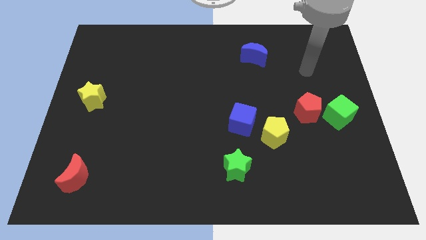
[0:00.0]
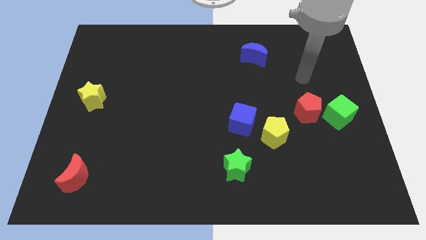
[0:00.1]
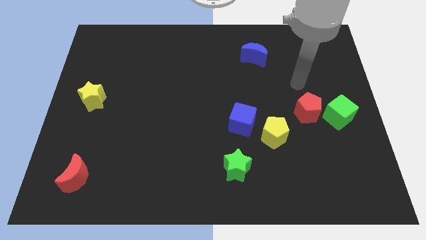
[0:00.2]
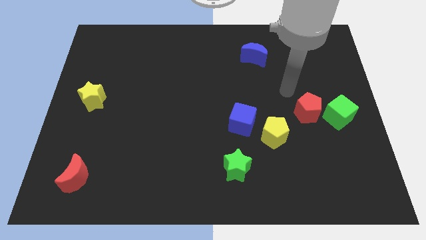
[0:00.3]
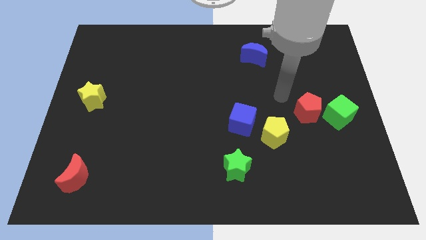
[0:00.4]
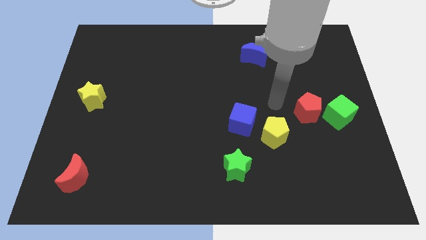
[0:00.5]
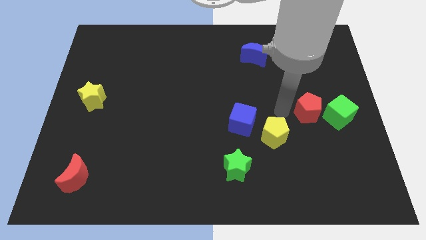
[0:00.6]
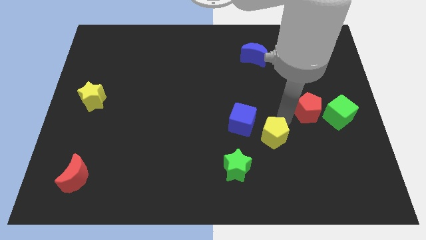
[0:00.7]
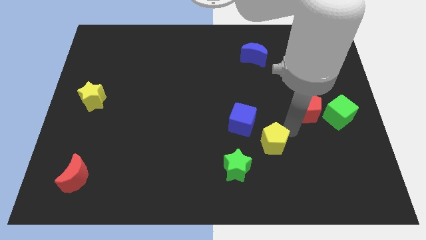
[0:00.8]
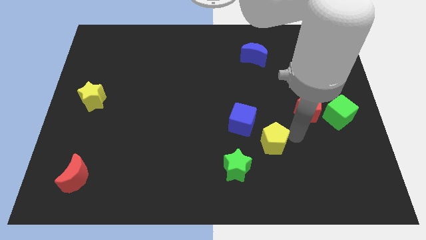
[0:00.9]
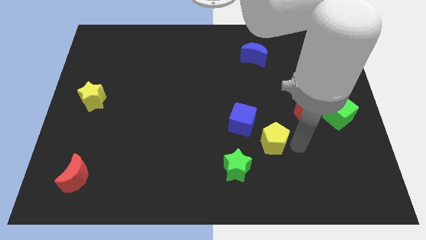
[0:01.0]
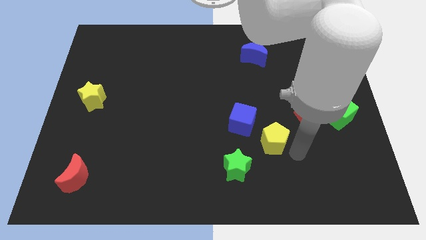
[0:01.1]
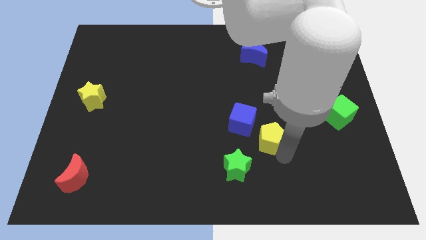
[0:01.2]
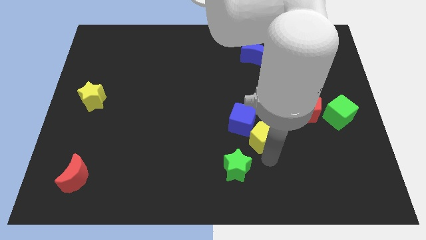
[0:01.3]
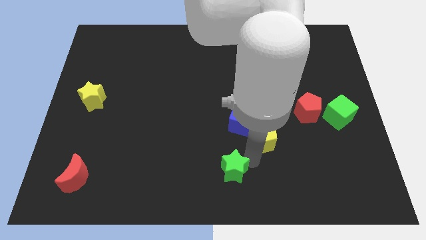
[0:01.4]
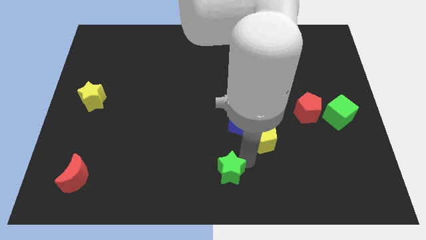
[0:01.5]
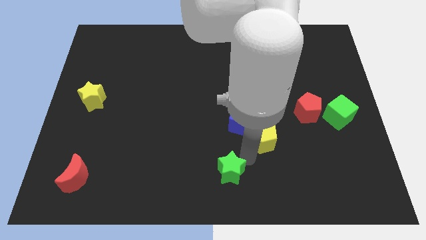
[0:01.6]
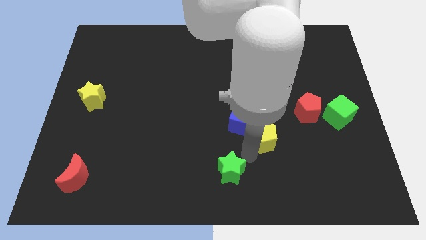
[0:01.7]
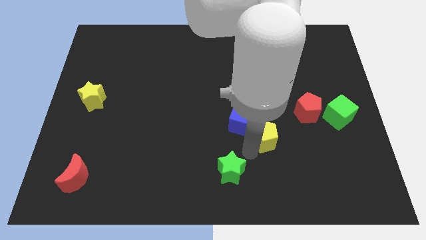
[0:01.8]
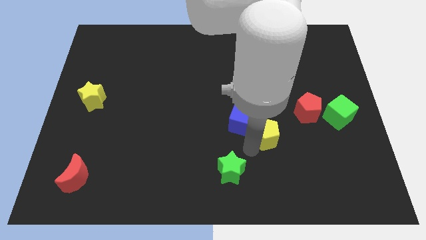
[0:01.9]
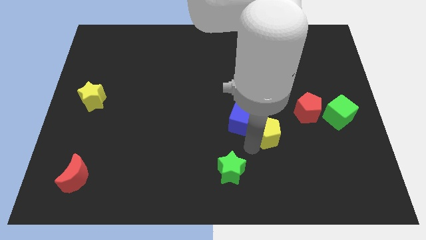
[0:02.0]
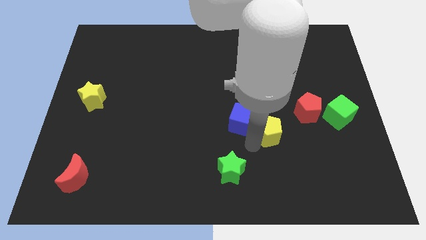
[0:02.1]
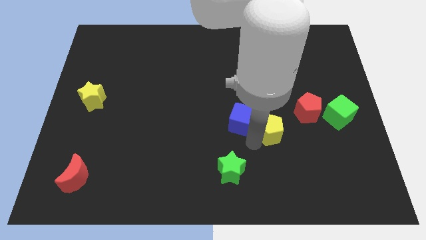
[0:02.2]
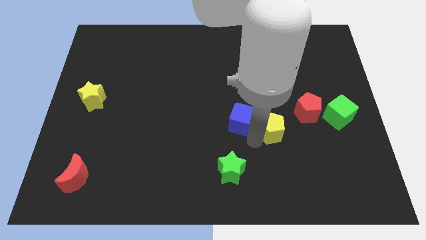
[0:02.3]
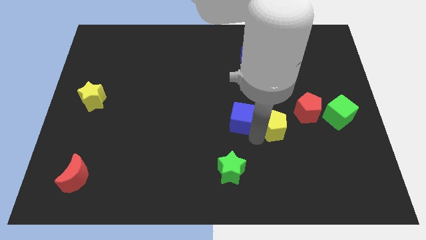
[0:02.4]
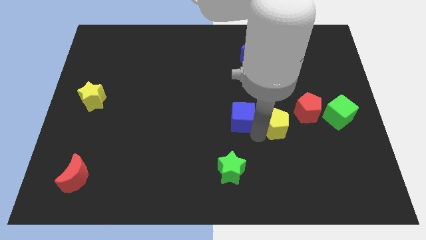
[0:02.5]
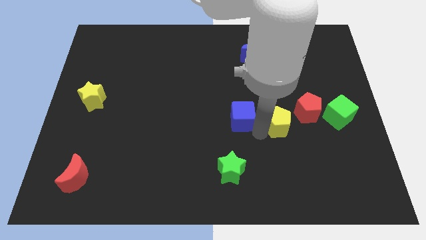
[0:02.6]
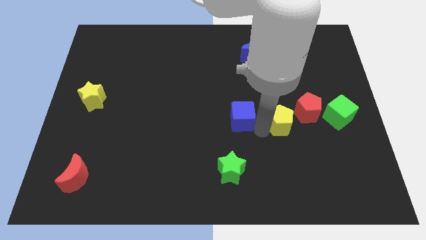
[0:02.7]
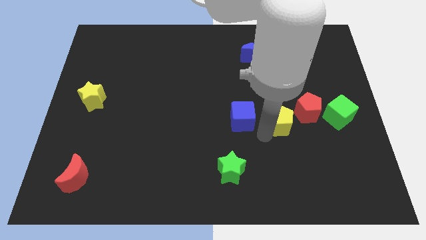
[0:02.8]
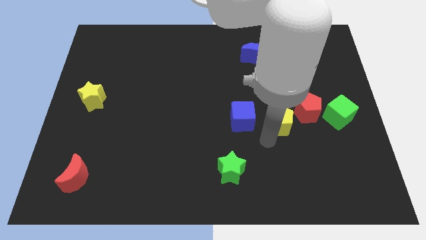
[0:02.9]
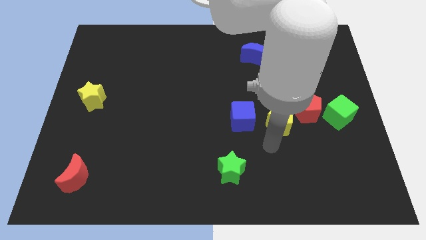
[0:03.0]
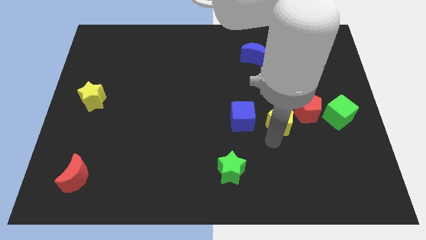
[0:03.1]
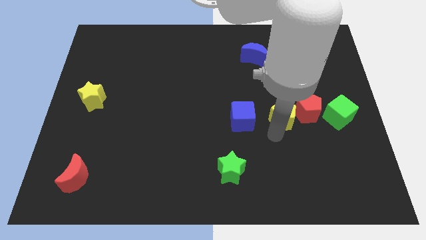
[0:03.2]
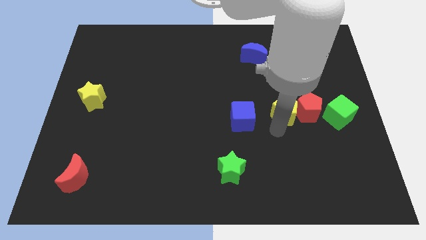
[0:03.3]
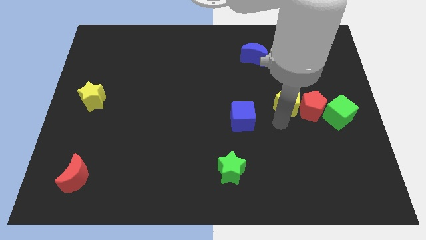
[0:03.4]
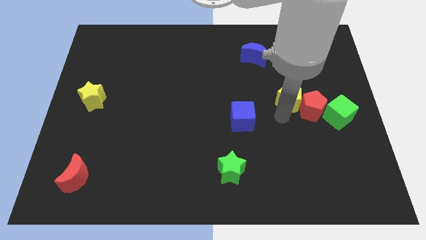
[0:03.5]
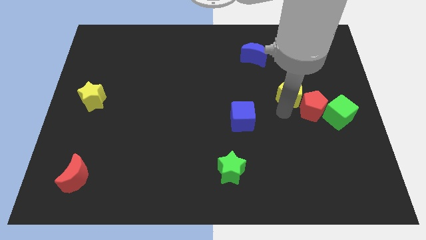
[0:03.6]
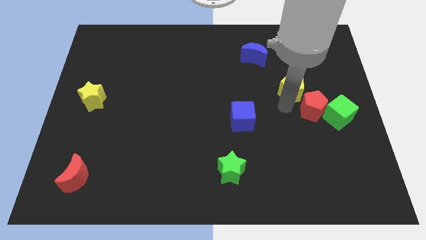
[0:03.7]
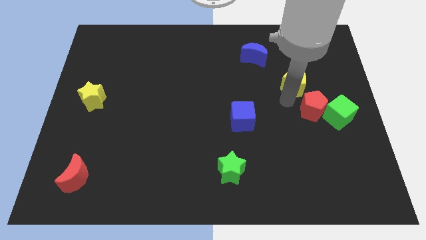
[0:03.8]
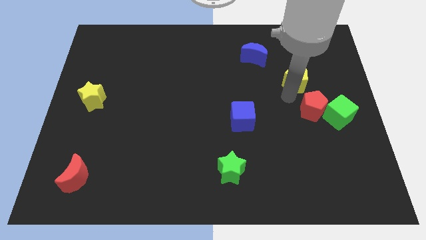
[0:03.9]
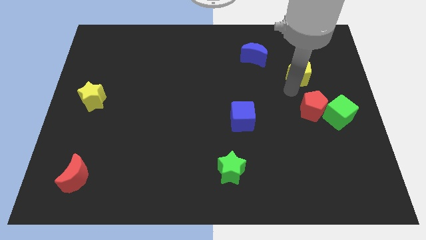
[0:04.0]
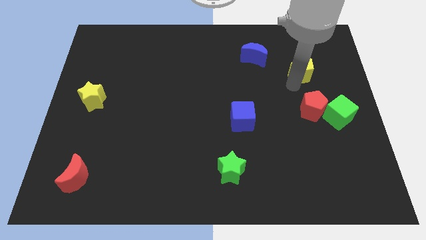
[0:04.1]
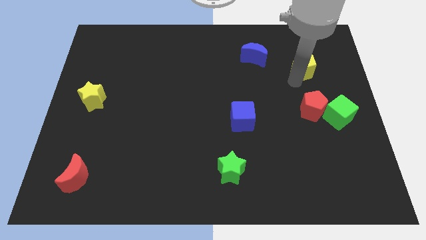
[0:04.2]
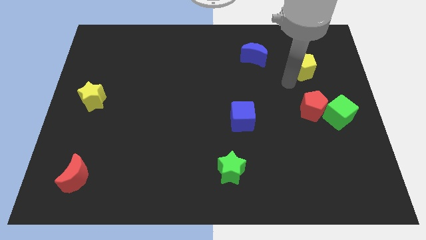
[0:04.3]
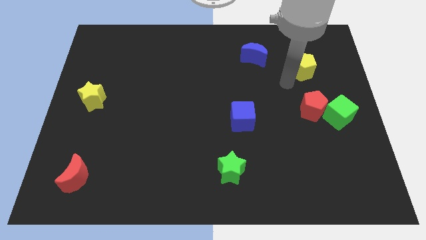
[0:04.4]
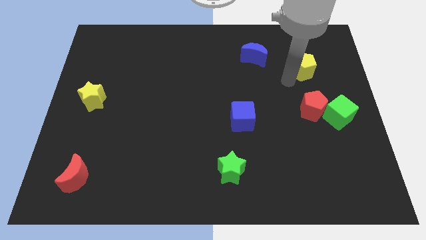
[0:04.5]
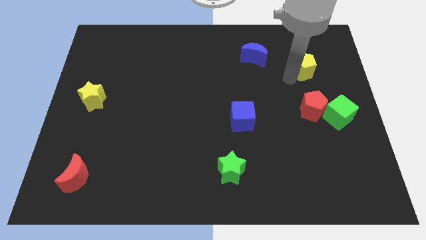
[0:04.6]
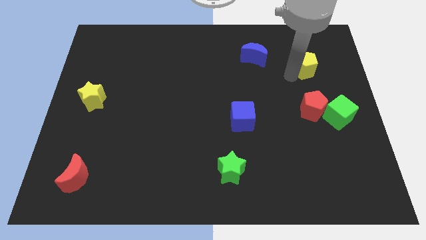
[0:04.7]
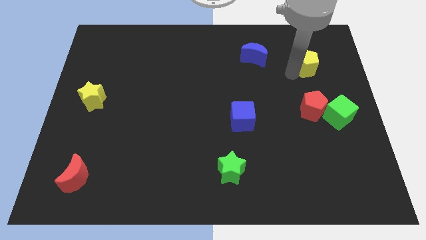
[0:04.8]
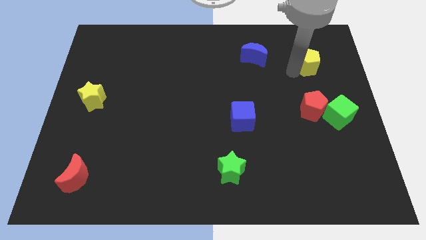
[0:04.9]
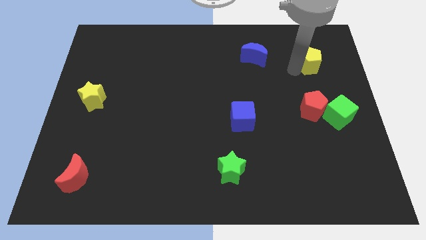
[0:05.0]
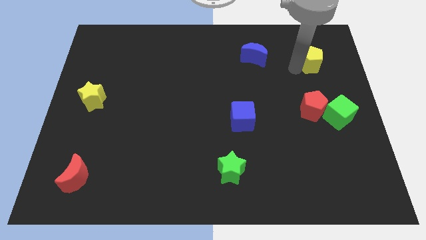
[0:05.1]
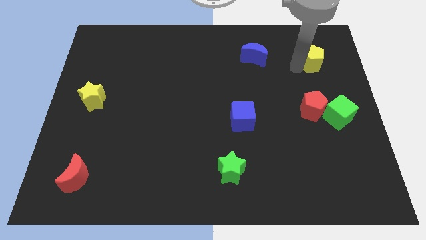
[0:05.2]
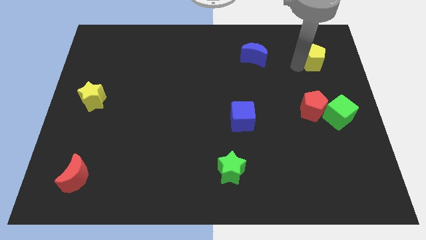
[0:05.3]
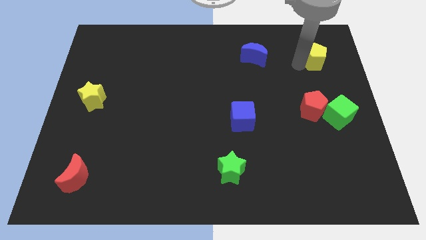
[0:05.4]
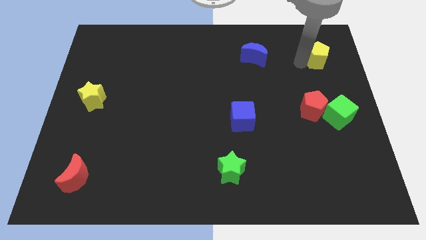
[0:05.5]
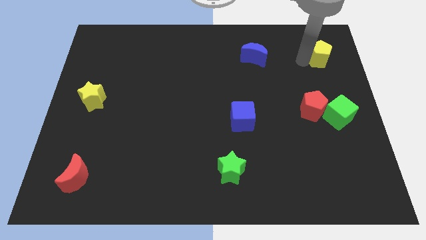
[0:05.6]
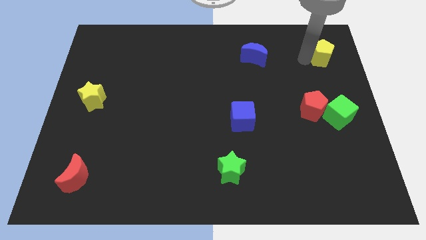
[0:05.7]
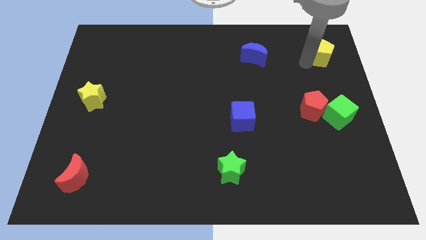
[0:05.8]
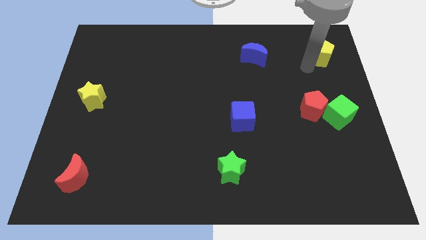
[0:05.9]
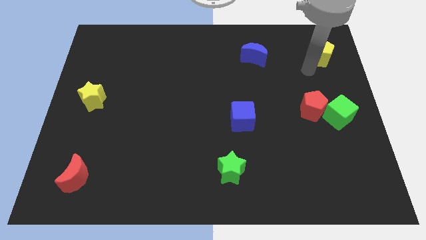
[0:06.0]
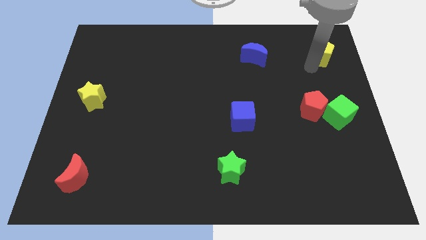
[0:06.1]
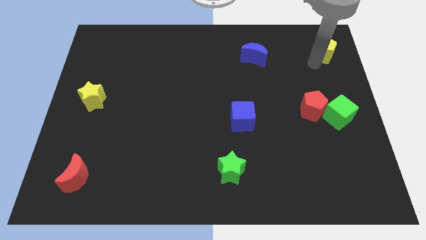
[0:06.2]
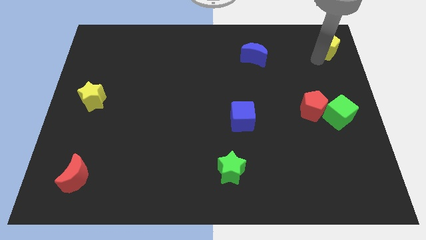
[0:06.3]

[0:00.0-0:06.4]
slide the yellow pentagon to the top right of the board
